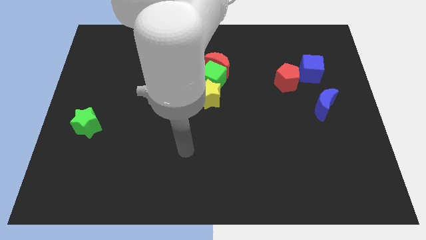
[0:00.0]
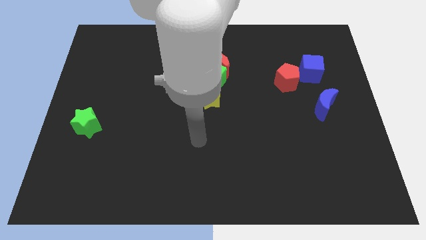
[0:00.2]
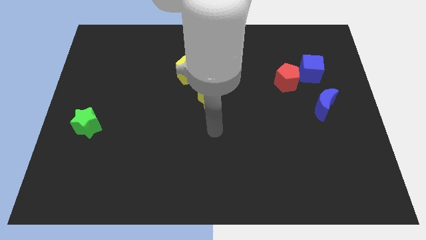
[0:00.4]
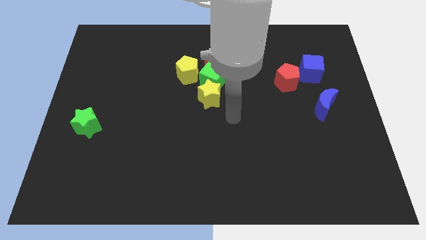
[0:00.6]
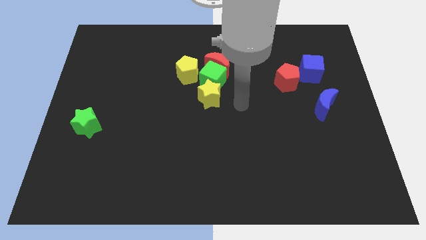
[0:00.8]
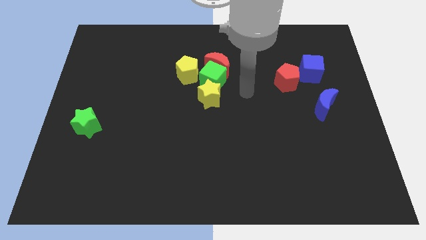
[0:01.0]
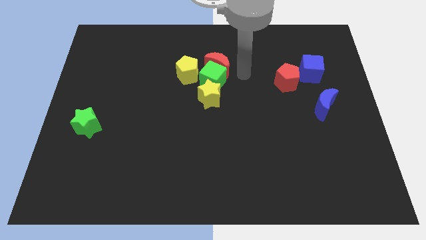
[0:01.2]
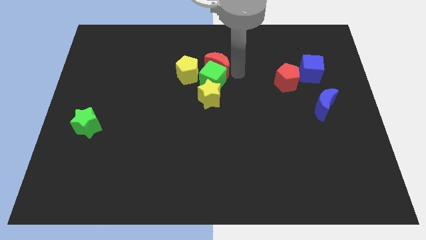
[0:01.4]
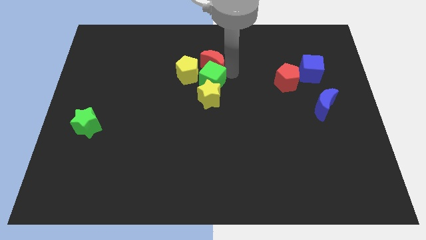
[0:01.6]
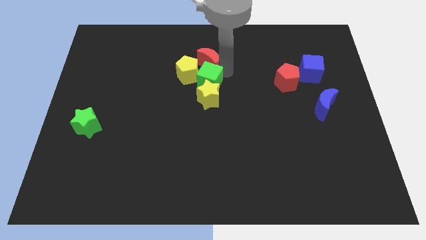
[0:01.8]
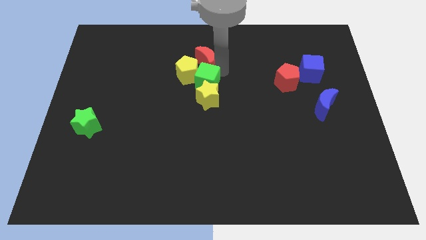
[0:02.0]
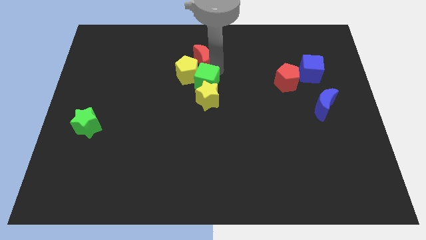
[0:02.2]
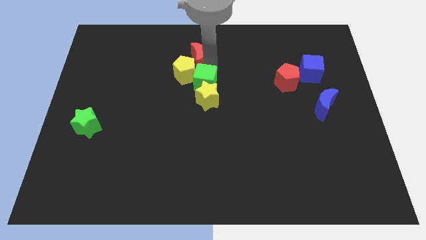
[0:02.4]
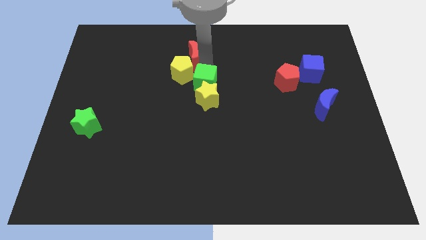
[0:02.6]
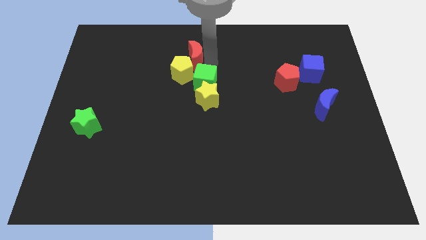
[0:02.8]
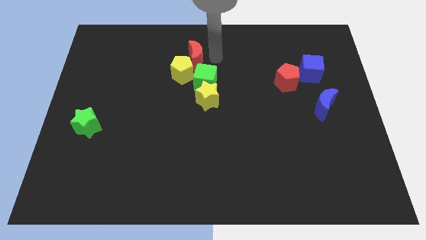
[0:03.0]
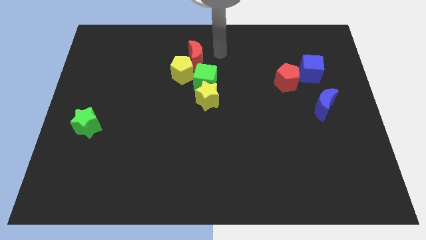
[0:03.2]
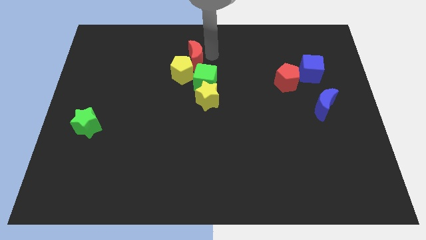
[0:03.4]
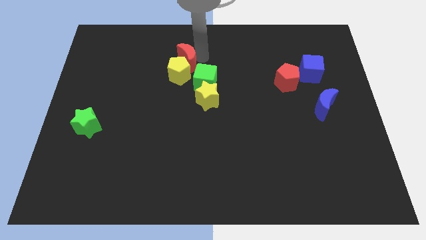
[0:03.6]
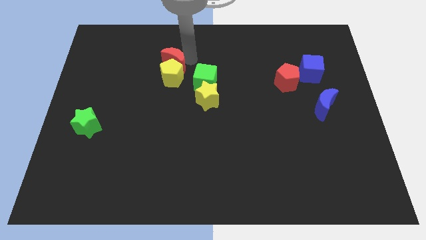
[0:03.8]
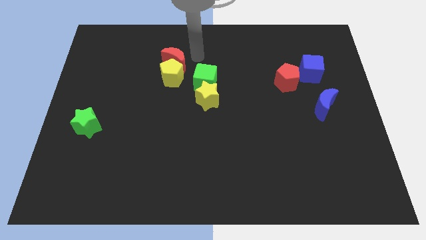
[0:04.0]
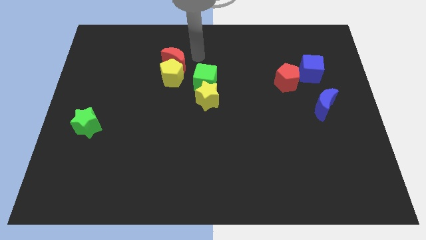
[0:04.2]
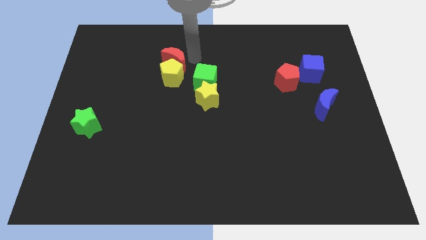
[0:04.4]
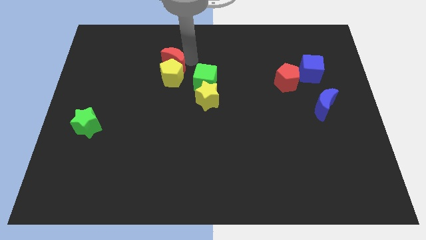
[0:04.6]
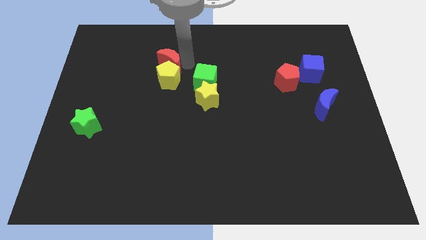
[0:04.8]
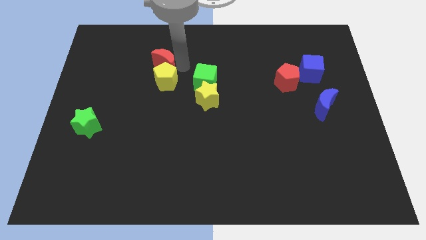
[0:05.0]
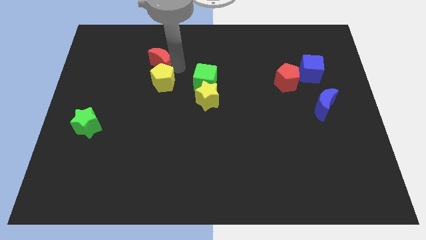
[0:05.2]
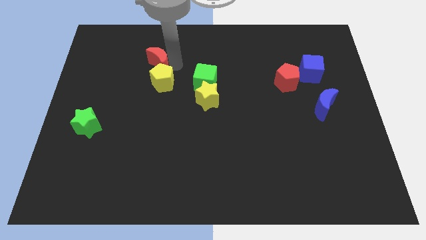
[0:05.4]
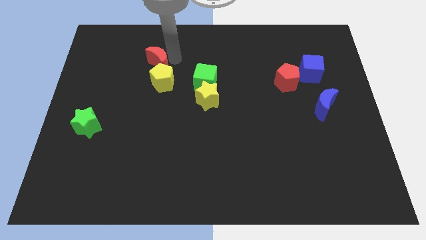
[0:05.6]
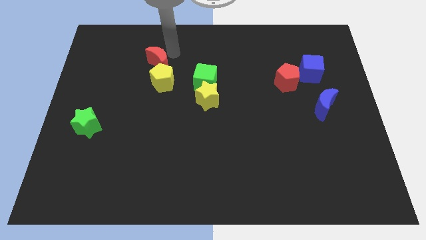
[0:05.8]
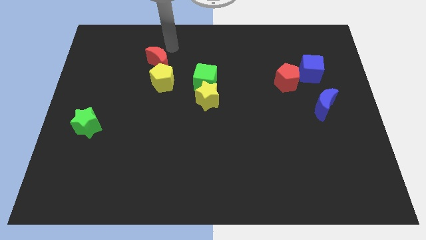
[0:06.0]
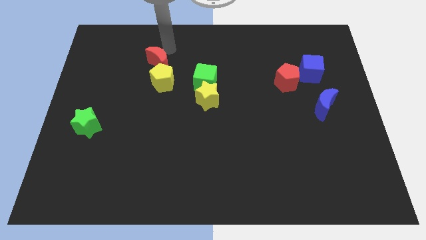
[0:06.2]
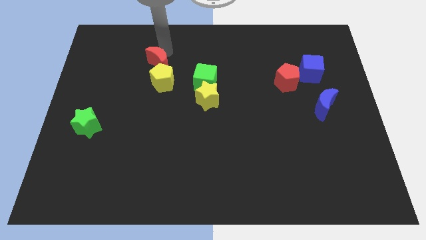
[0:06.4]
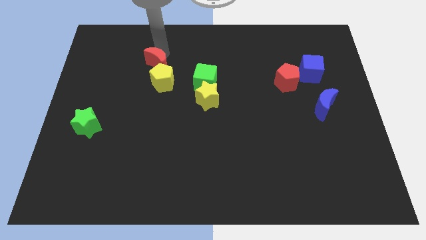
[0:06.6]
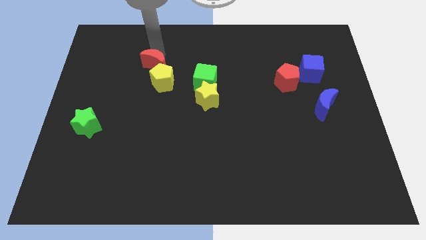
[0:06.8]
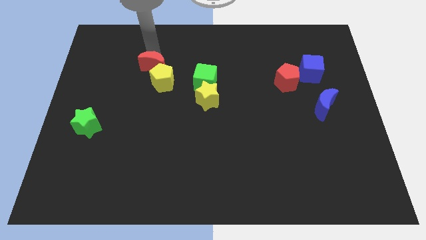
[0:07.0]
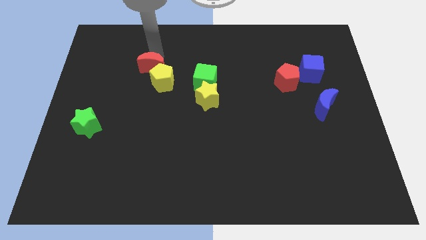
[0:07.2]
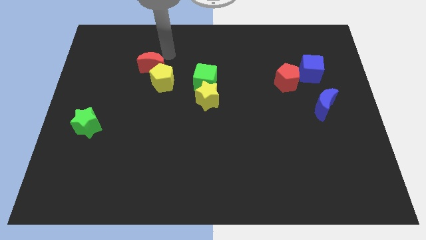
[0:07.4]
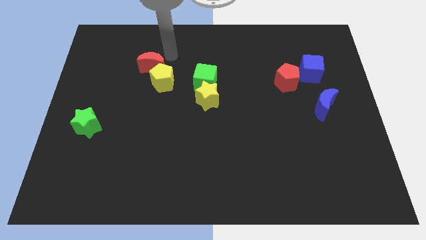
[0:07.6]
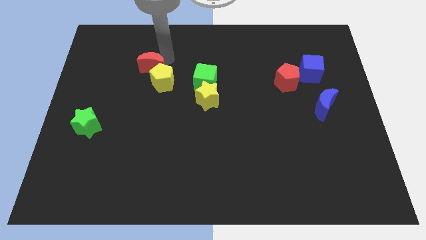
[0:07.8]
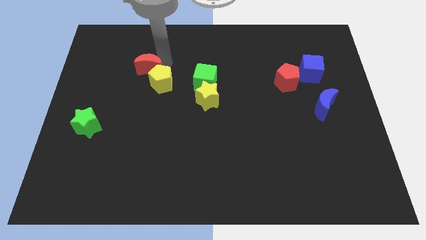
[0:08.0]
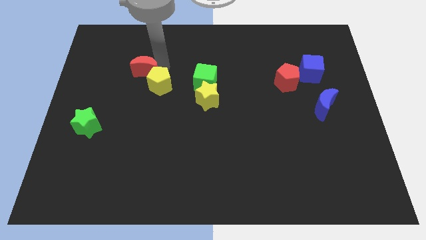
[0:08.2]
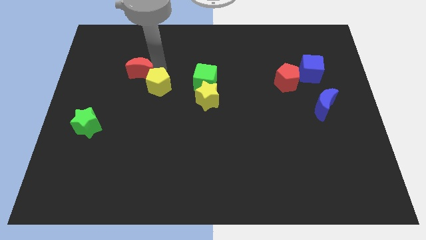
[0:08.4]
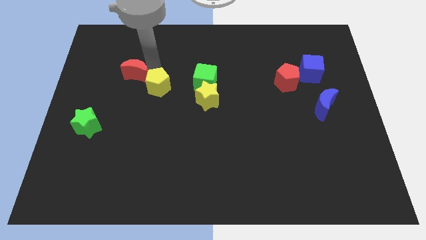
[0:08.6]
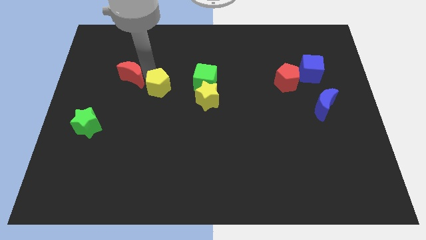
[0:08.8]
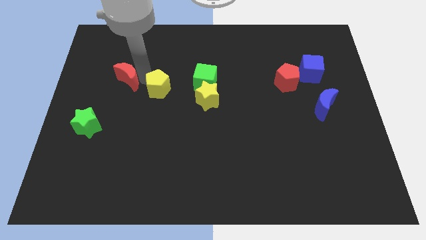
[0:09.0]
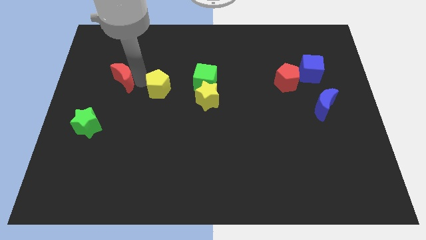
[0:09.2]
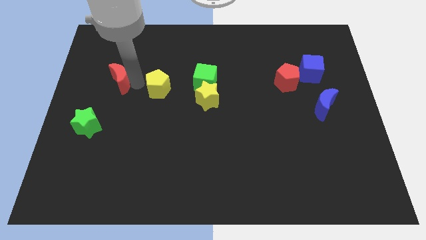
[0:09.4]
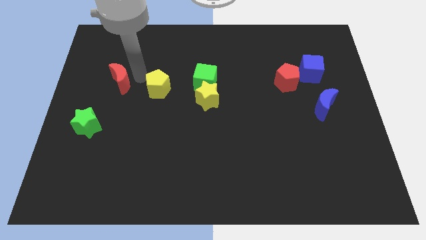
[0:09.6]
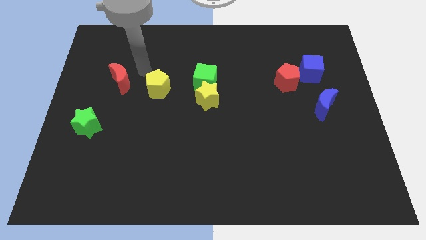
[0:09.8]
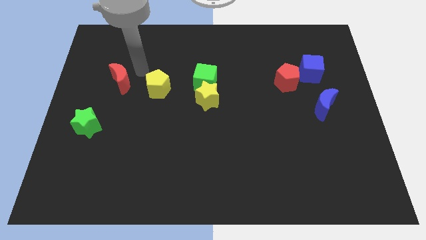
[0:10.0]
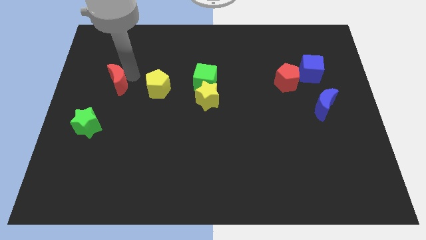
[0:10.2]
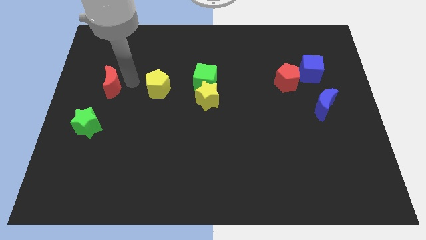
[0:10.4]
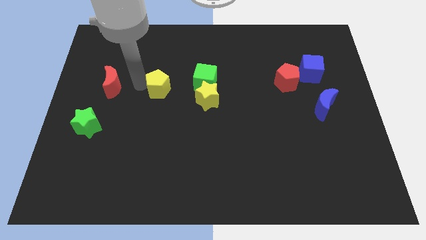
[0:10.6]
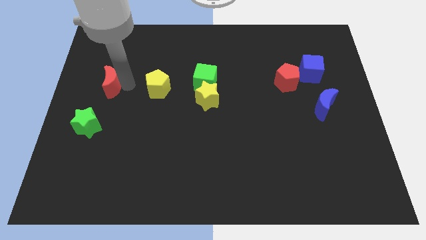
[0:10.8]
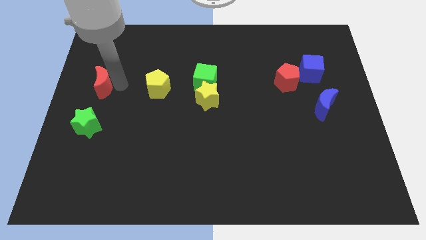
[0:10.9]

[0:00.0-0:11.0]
put the red moon to the left side of the board
